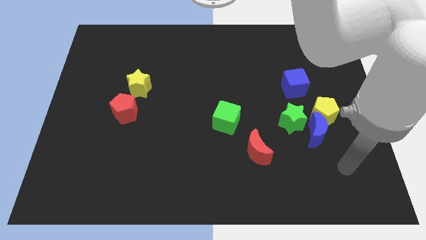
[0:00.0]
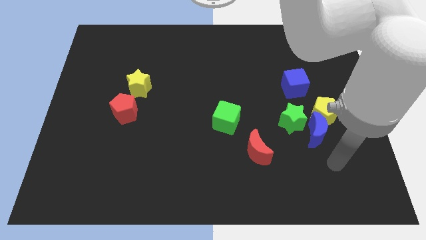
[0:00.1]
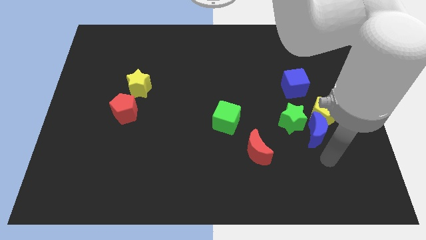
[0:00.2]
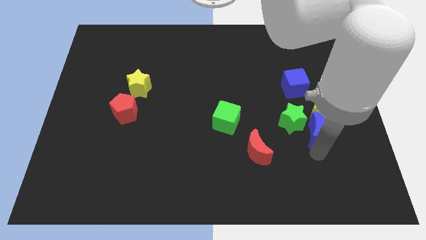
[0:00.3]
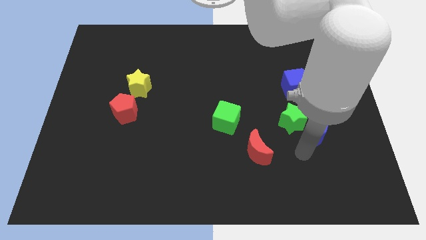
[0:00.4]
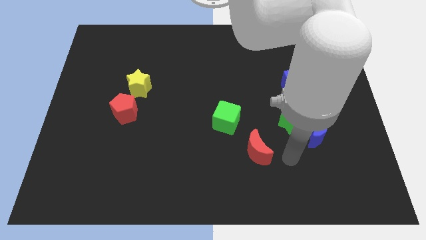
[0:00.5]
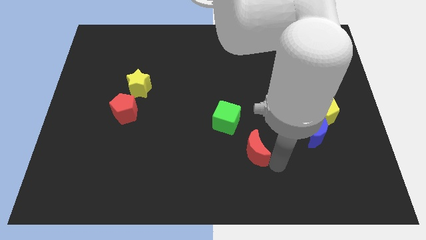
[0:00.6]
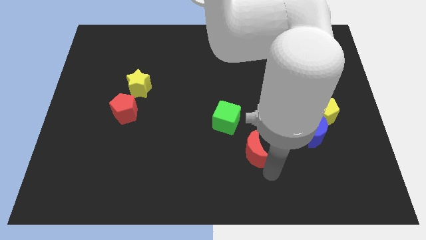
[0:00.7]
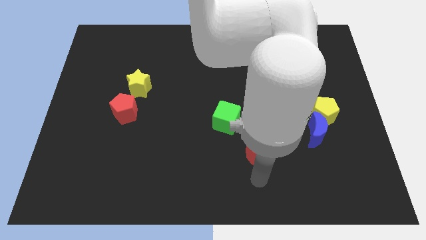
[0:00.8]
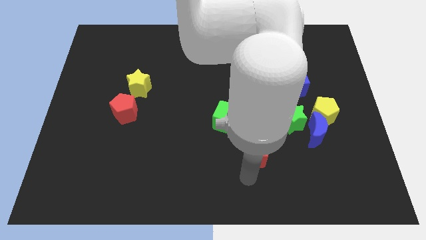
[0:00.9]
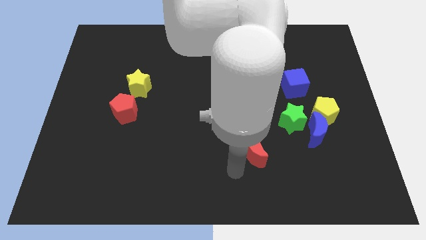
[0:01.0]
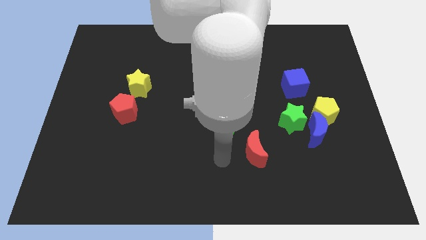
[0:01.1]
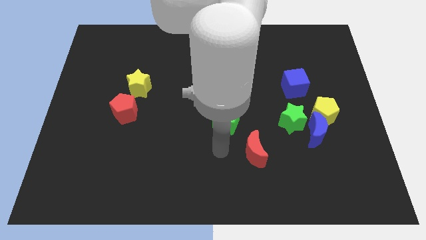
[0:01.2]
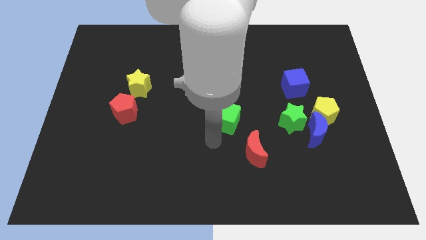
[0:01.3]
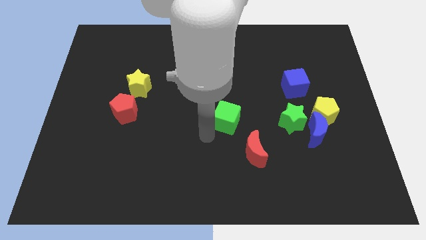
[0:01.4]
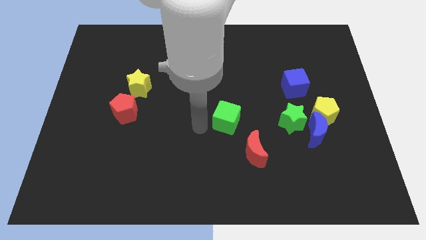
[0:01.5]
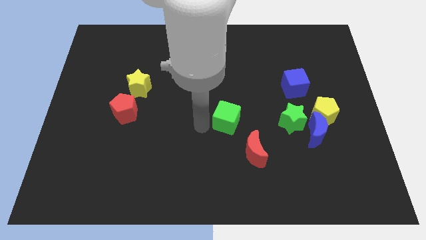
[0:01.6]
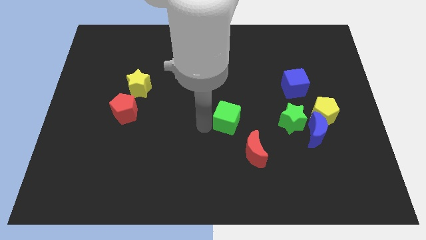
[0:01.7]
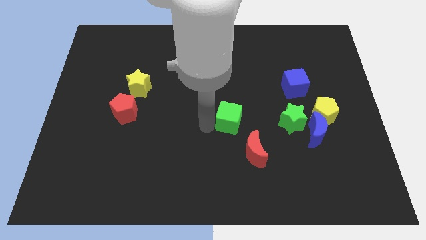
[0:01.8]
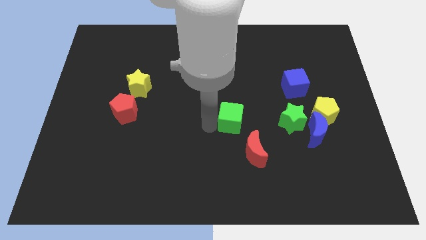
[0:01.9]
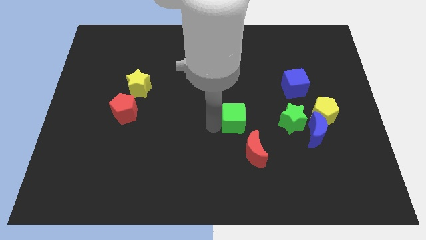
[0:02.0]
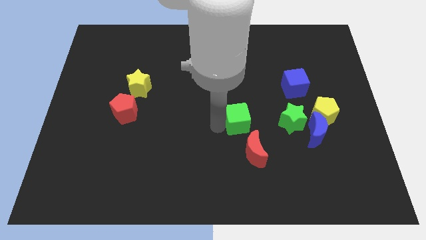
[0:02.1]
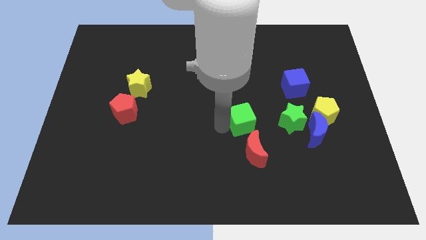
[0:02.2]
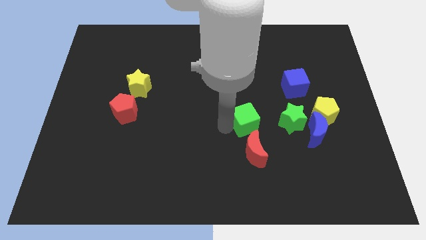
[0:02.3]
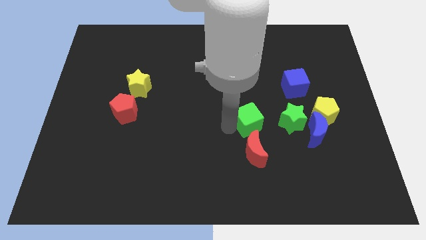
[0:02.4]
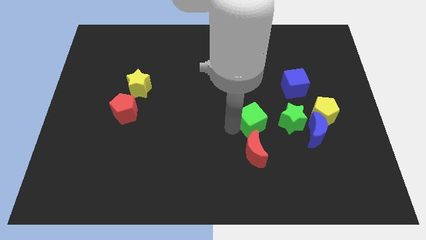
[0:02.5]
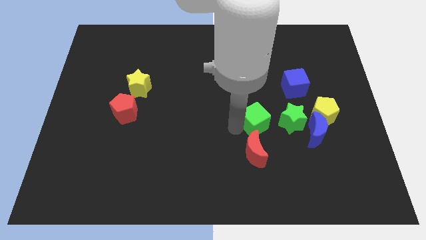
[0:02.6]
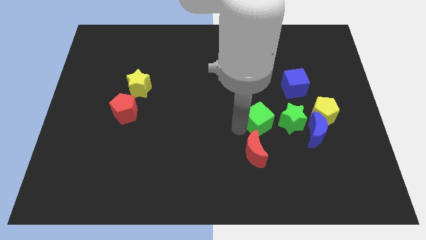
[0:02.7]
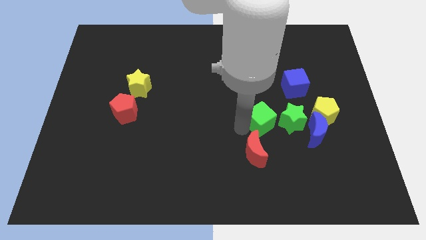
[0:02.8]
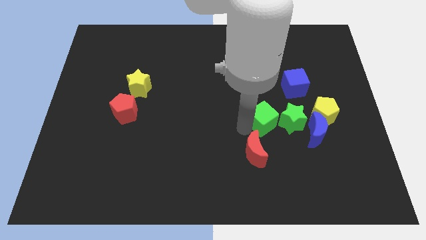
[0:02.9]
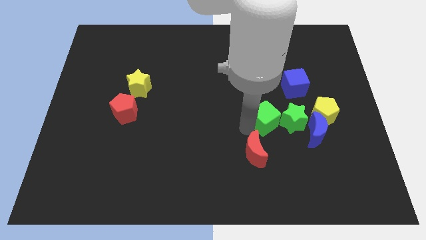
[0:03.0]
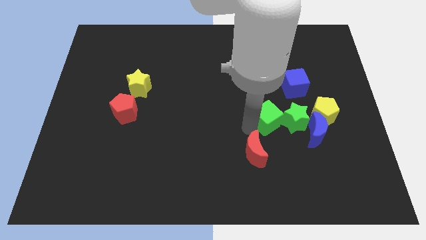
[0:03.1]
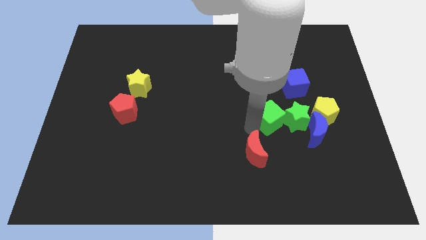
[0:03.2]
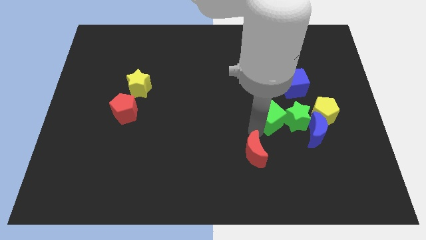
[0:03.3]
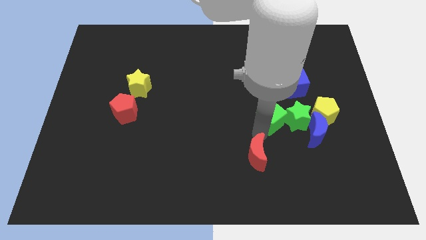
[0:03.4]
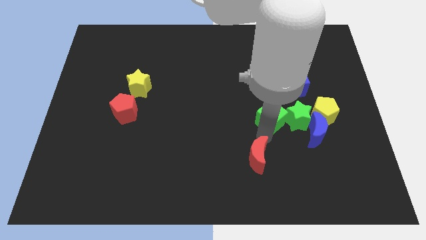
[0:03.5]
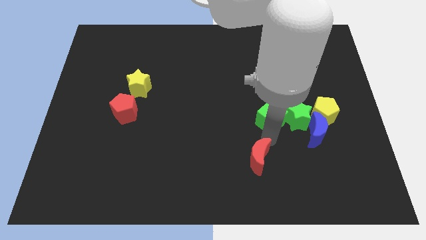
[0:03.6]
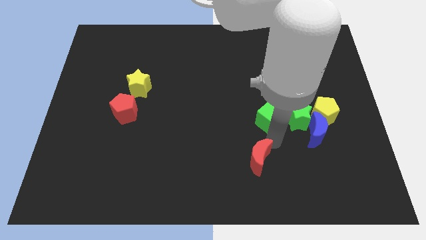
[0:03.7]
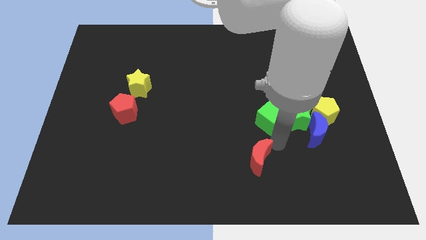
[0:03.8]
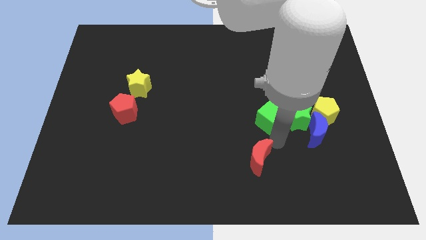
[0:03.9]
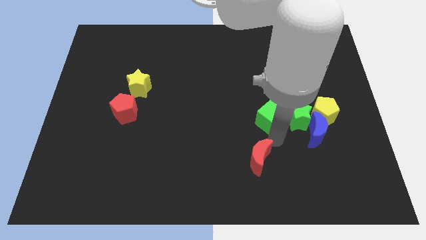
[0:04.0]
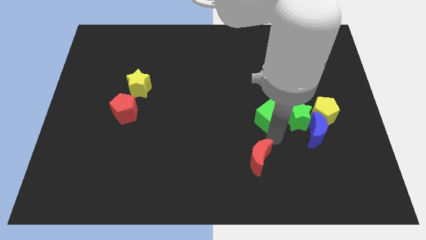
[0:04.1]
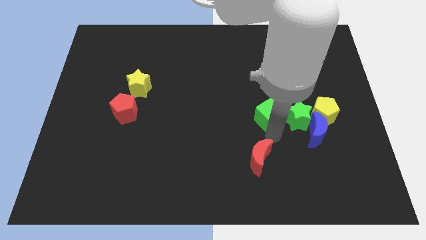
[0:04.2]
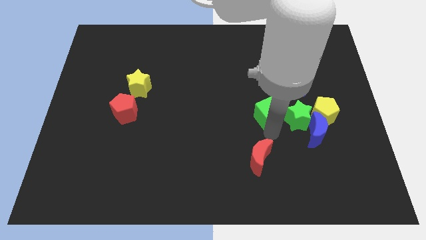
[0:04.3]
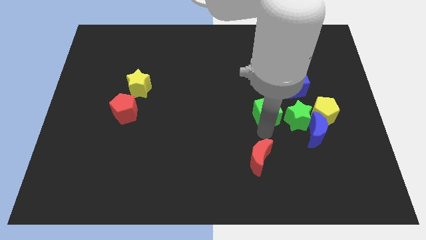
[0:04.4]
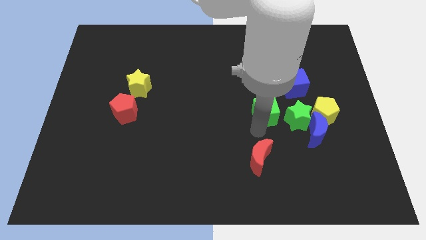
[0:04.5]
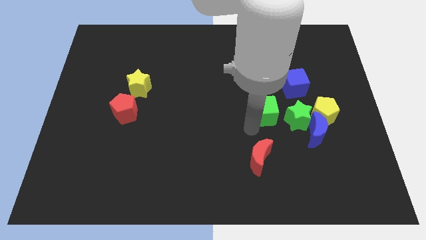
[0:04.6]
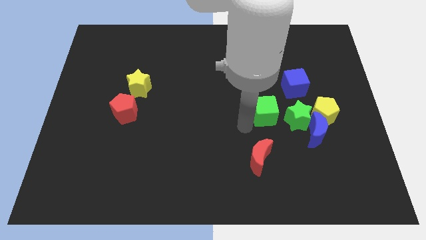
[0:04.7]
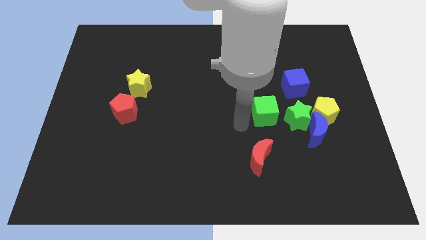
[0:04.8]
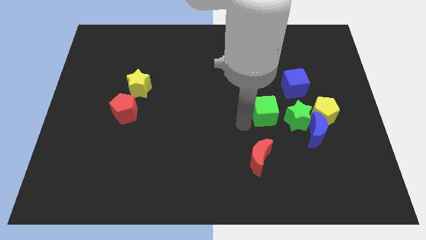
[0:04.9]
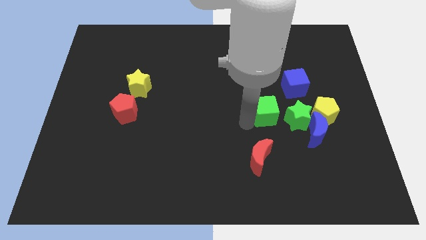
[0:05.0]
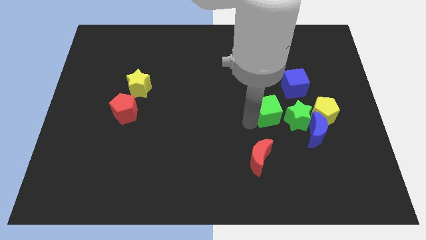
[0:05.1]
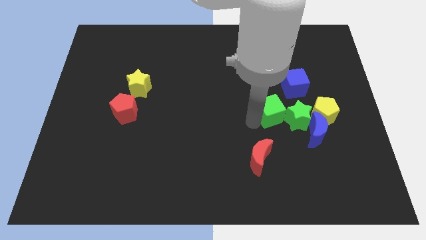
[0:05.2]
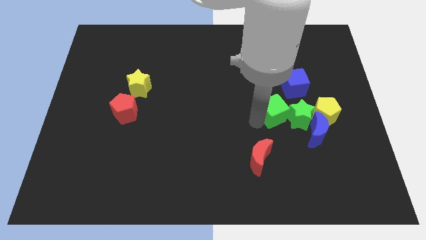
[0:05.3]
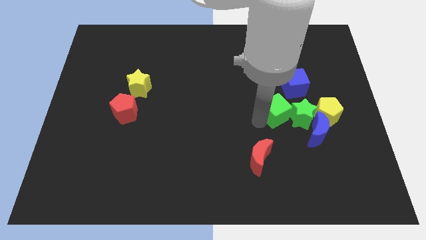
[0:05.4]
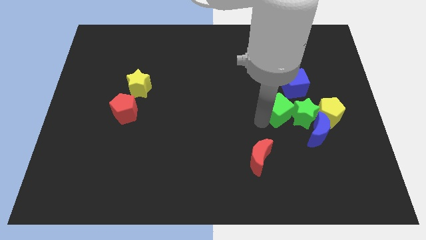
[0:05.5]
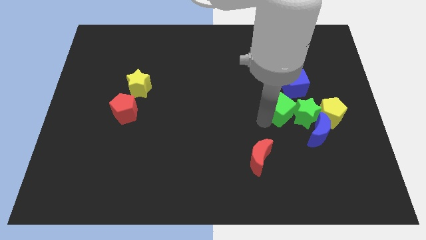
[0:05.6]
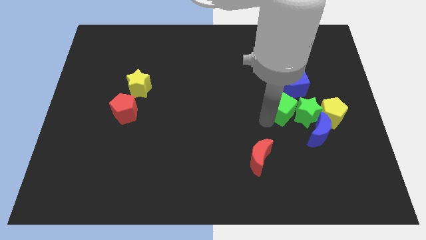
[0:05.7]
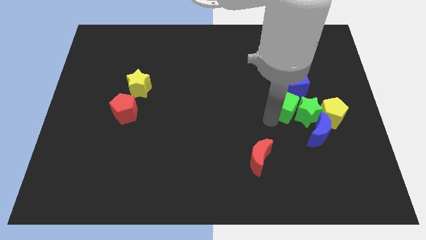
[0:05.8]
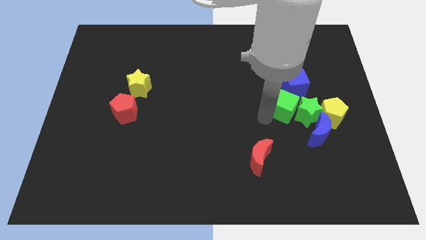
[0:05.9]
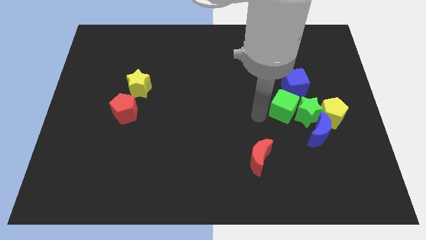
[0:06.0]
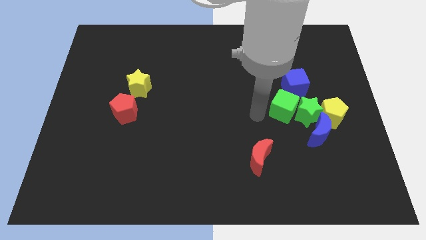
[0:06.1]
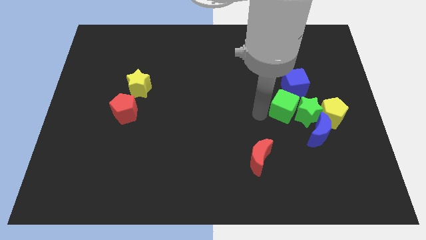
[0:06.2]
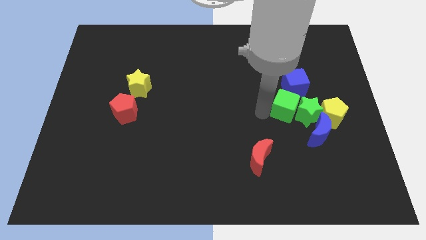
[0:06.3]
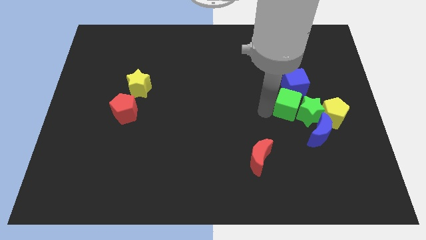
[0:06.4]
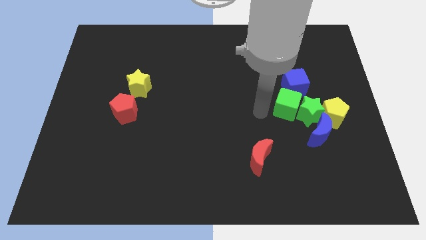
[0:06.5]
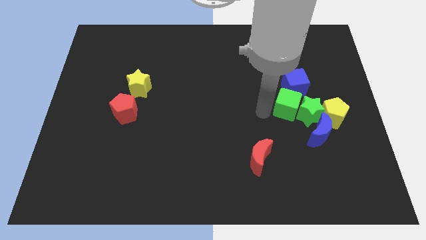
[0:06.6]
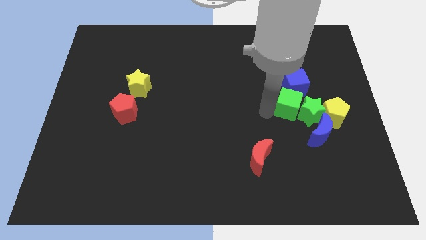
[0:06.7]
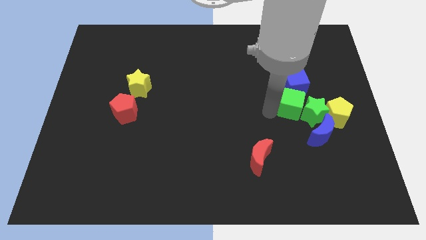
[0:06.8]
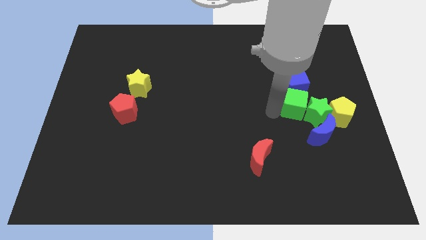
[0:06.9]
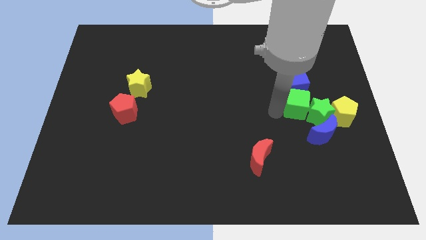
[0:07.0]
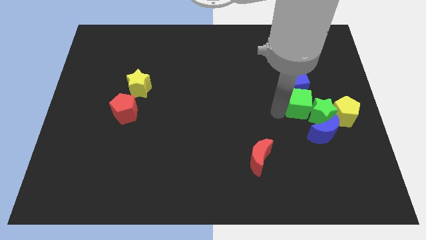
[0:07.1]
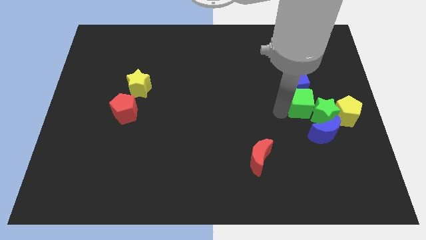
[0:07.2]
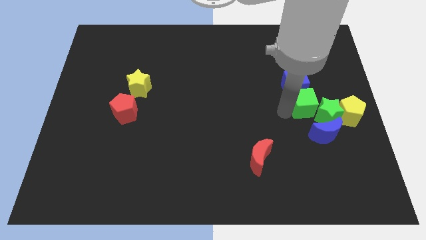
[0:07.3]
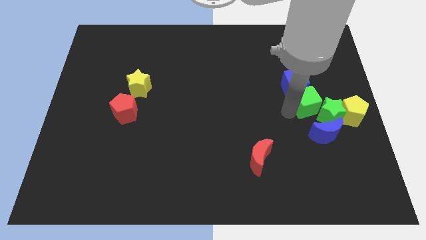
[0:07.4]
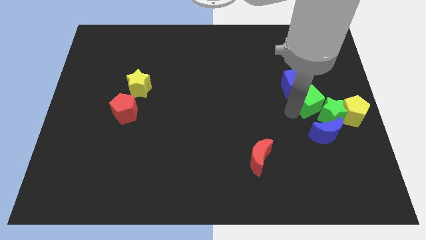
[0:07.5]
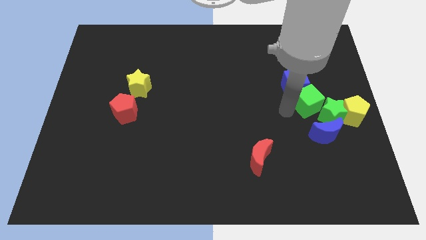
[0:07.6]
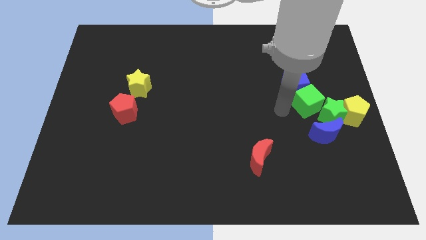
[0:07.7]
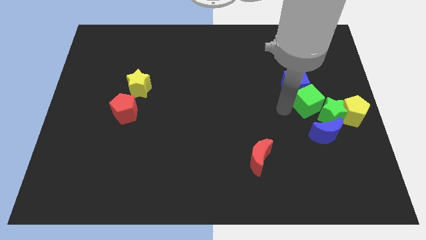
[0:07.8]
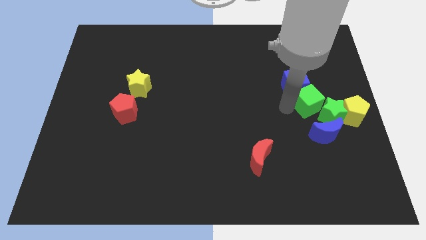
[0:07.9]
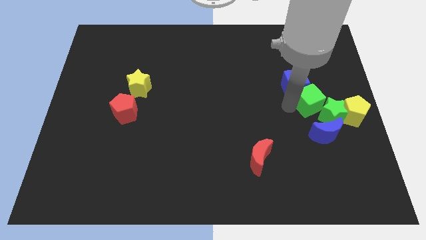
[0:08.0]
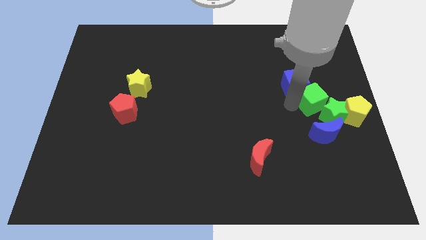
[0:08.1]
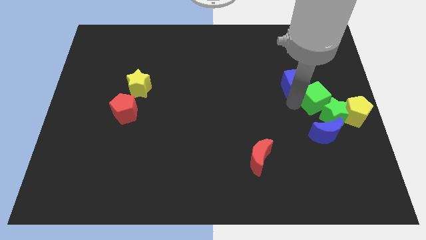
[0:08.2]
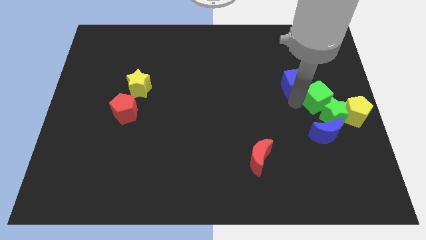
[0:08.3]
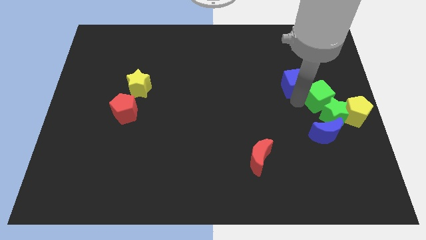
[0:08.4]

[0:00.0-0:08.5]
put the green cube to the right side of the board
